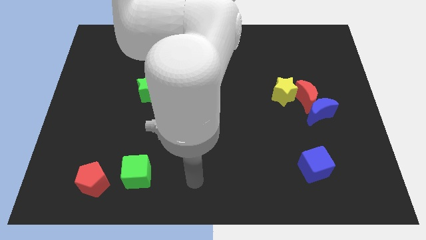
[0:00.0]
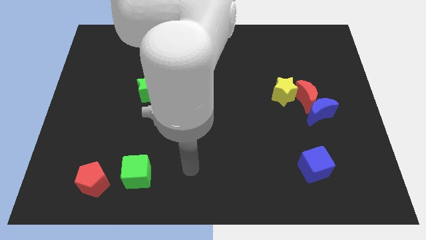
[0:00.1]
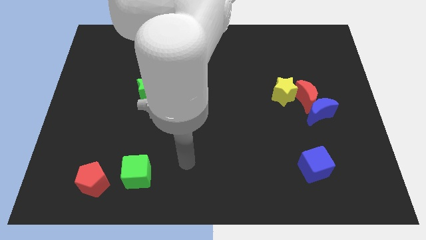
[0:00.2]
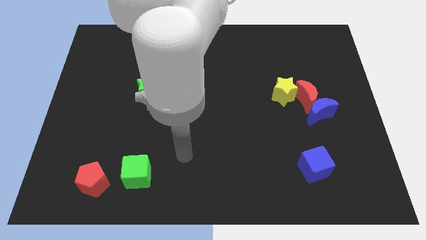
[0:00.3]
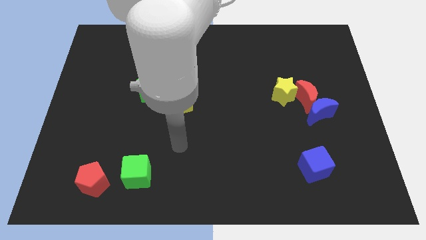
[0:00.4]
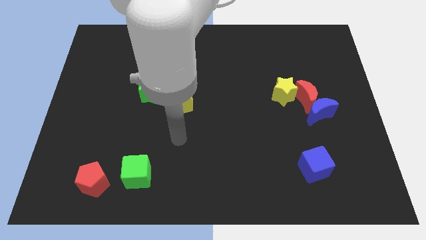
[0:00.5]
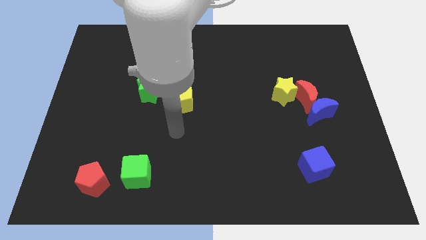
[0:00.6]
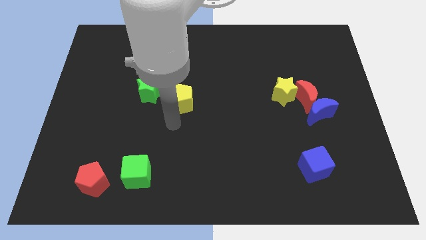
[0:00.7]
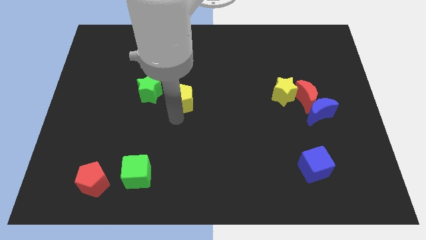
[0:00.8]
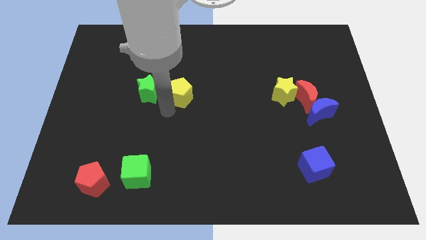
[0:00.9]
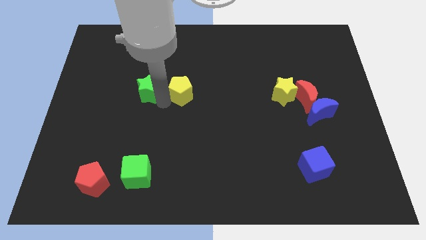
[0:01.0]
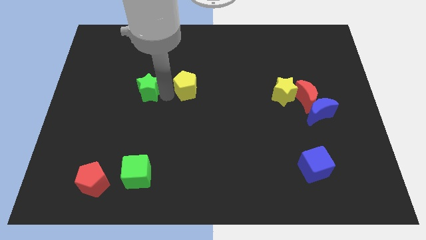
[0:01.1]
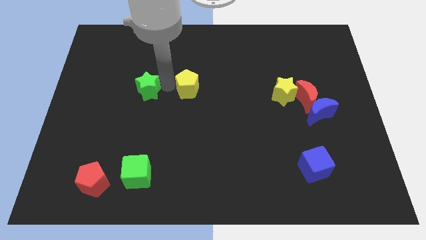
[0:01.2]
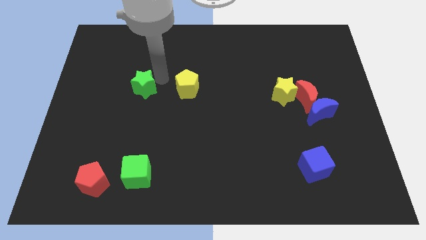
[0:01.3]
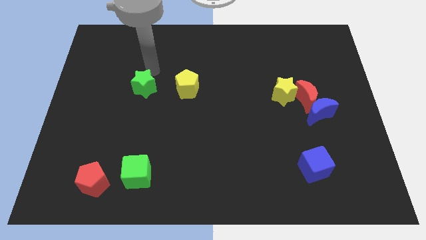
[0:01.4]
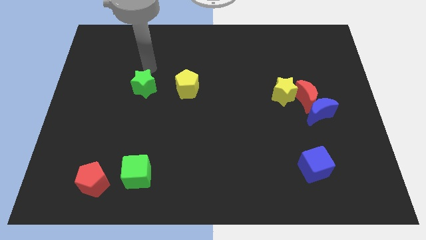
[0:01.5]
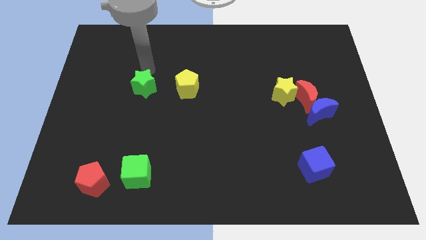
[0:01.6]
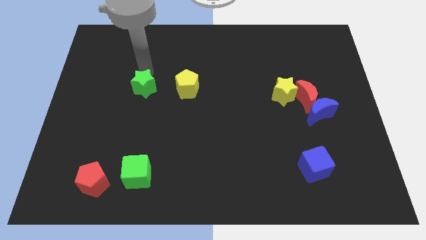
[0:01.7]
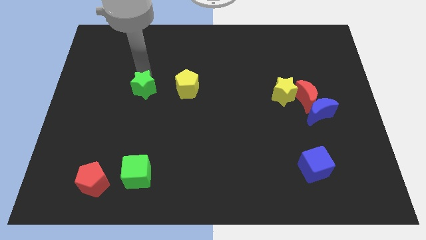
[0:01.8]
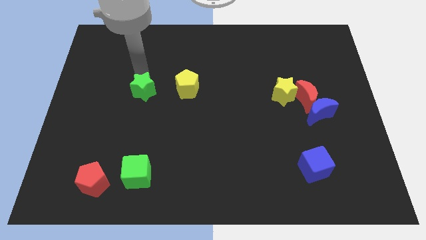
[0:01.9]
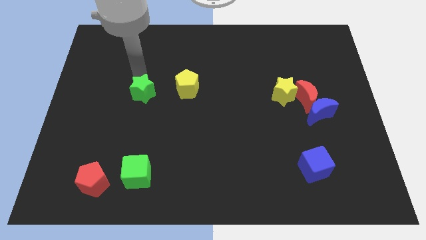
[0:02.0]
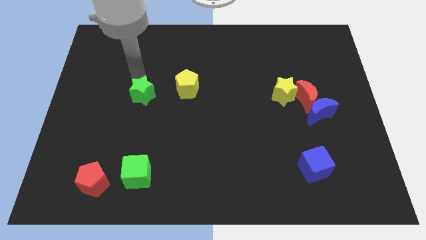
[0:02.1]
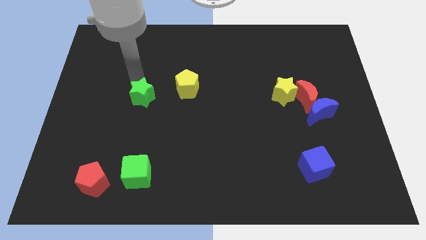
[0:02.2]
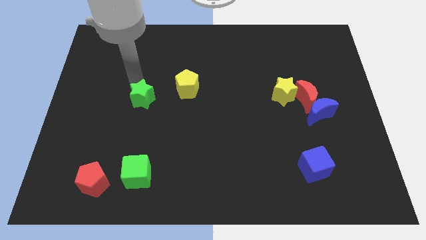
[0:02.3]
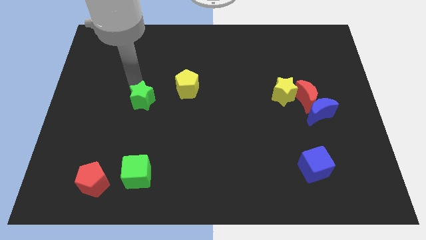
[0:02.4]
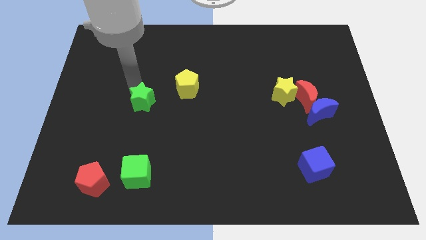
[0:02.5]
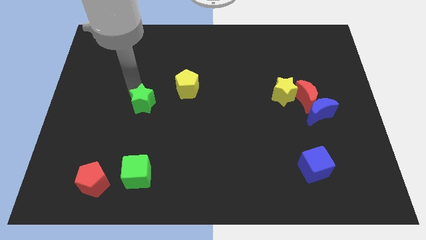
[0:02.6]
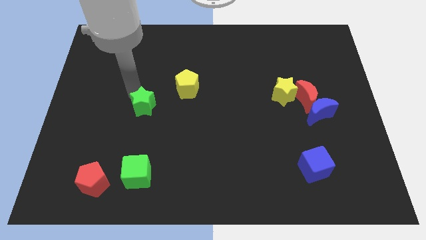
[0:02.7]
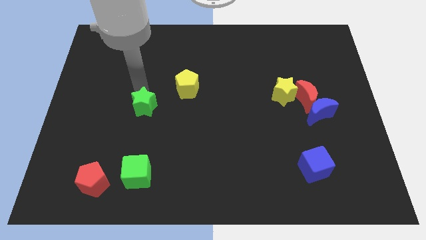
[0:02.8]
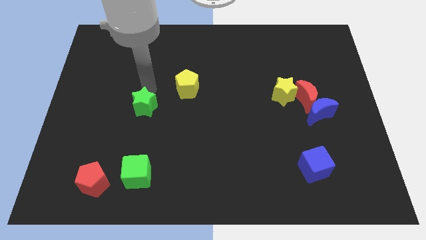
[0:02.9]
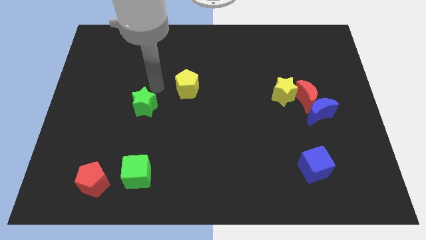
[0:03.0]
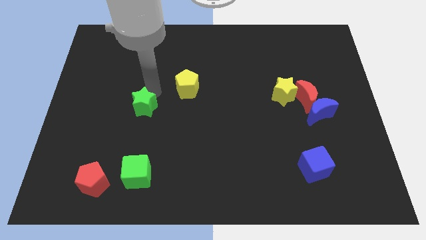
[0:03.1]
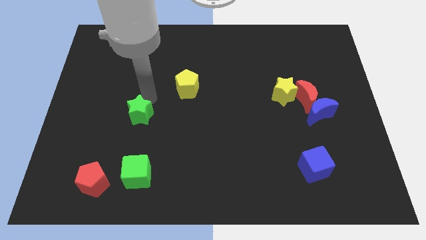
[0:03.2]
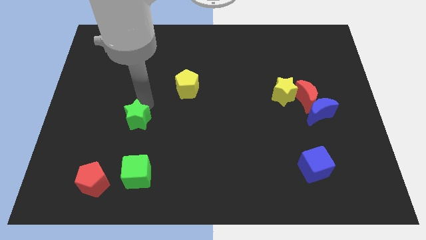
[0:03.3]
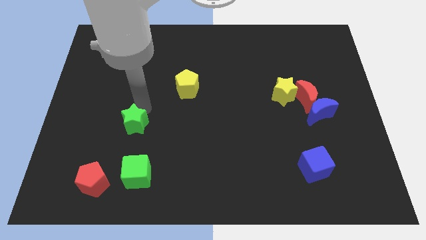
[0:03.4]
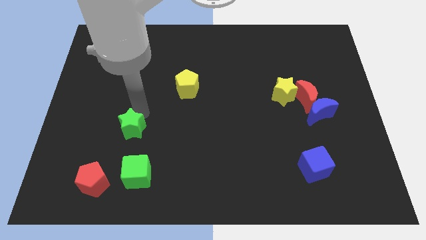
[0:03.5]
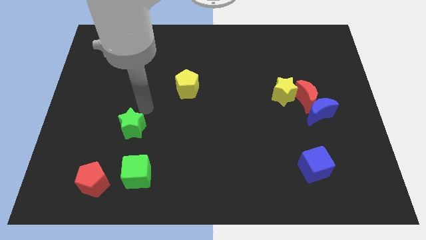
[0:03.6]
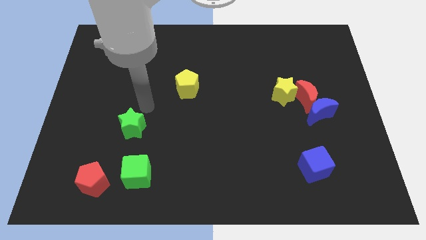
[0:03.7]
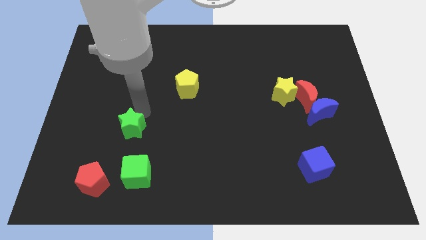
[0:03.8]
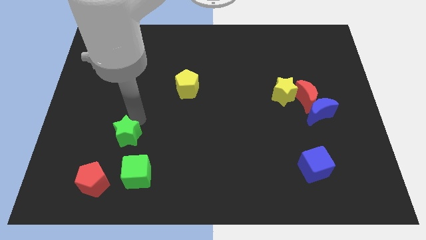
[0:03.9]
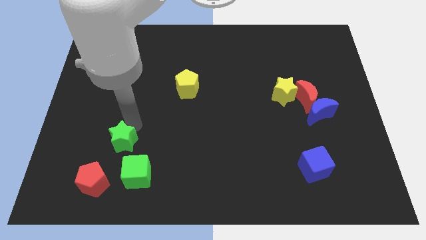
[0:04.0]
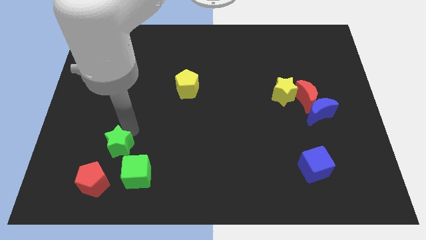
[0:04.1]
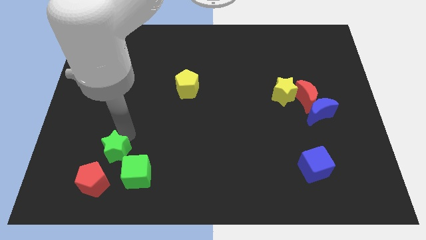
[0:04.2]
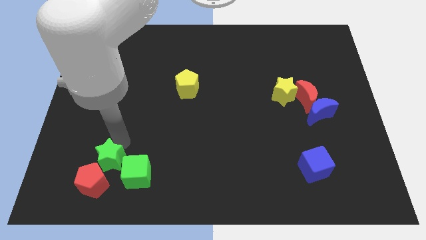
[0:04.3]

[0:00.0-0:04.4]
move the green star to the red pentagon

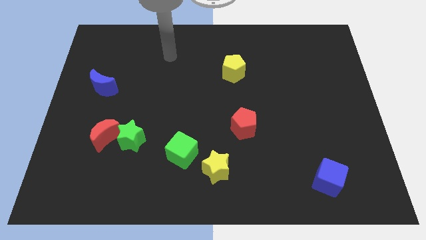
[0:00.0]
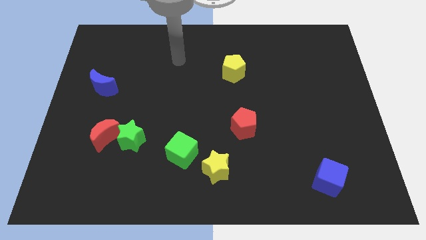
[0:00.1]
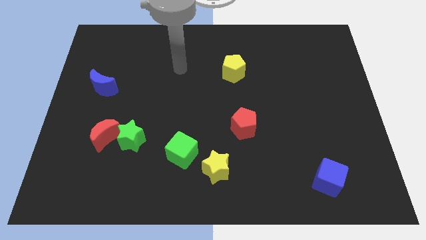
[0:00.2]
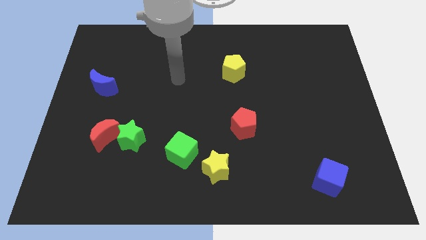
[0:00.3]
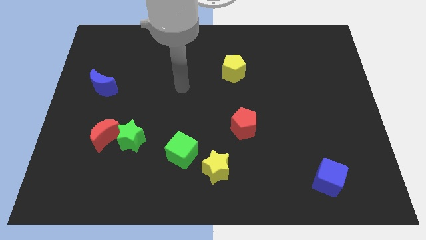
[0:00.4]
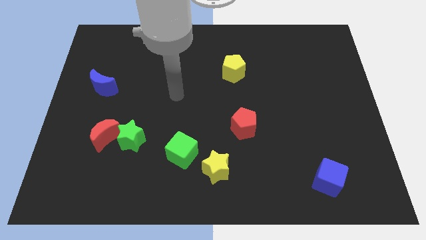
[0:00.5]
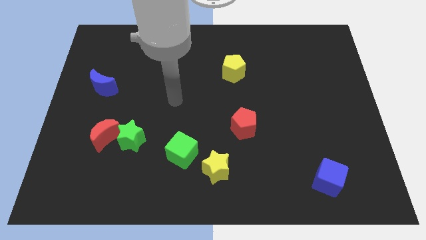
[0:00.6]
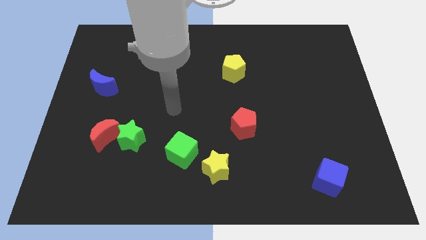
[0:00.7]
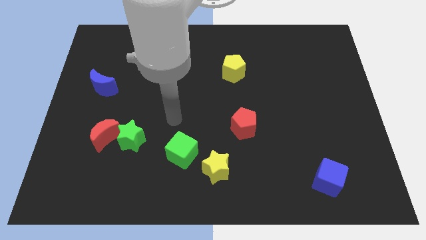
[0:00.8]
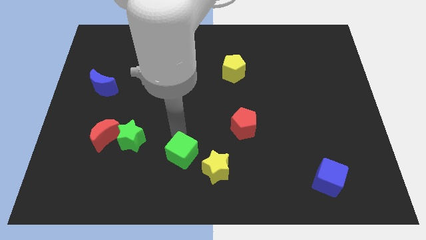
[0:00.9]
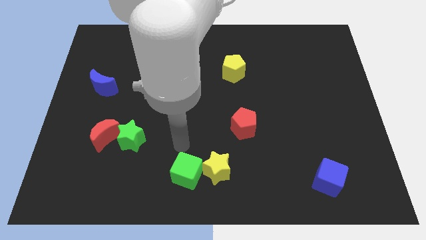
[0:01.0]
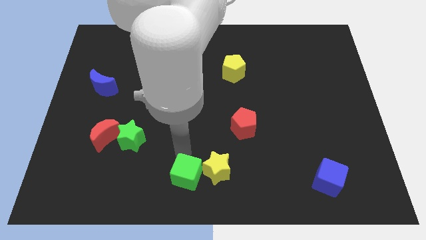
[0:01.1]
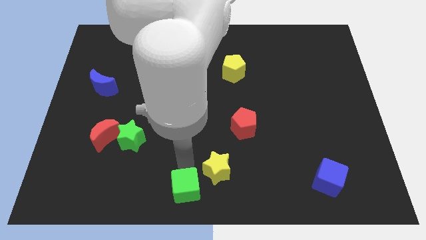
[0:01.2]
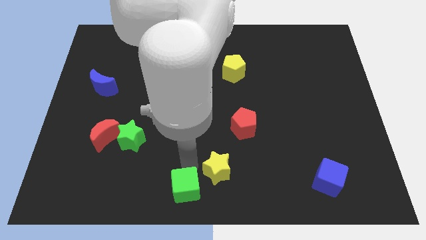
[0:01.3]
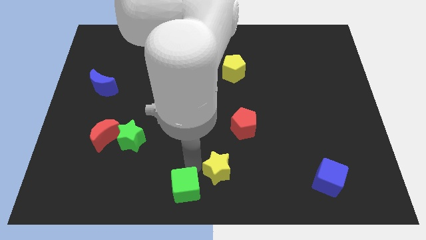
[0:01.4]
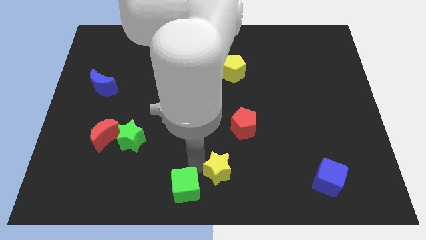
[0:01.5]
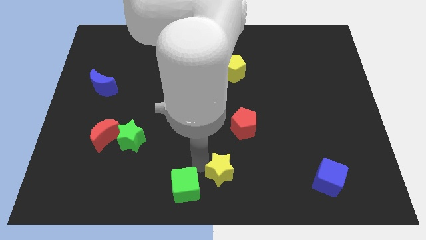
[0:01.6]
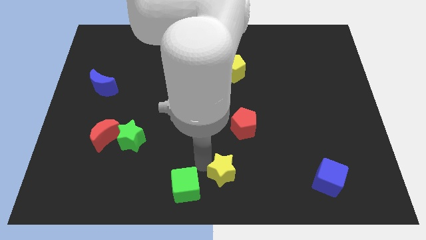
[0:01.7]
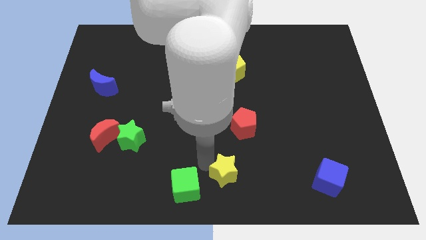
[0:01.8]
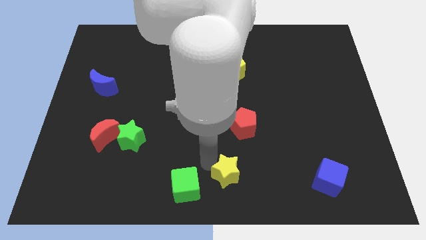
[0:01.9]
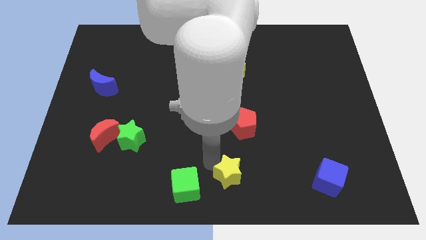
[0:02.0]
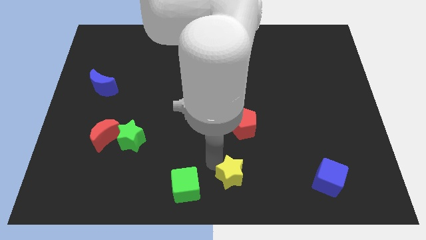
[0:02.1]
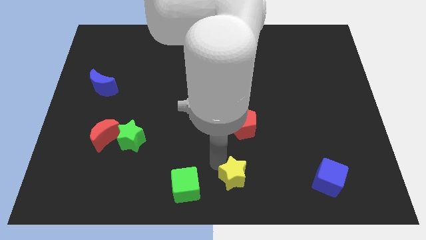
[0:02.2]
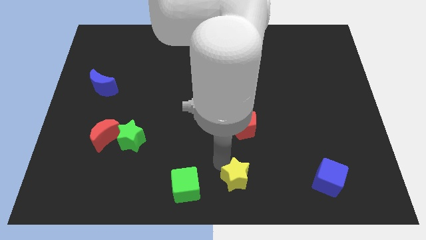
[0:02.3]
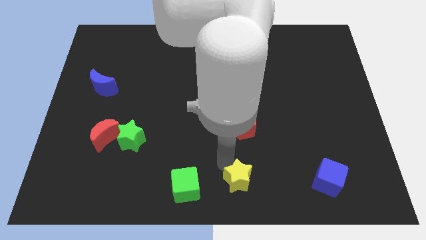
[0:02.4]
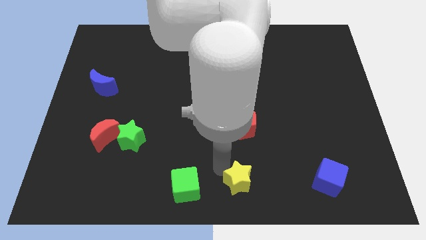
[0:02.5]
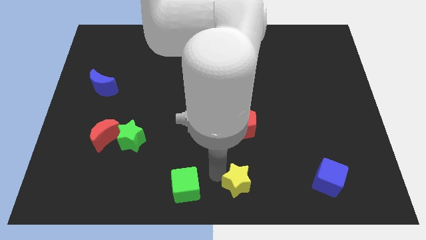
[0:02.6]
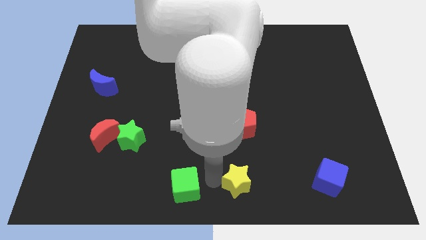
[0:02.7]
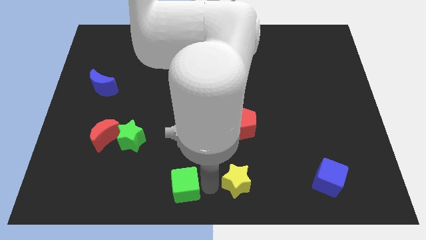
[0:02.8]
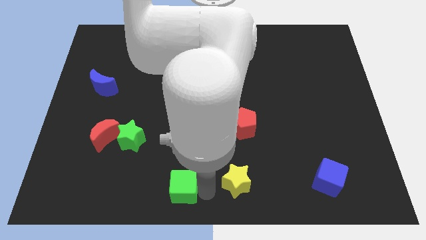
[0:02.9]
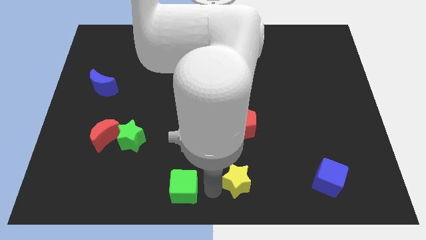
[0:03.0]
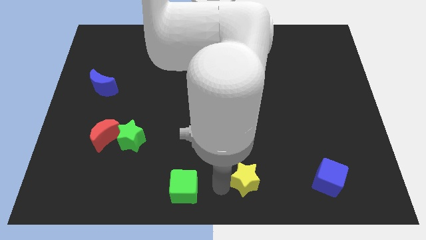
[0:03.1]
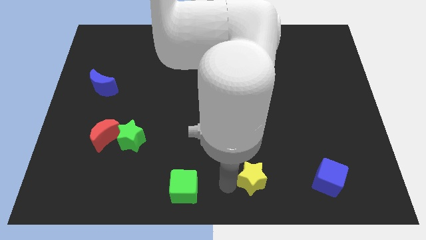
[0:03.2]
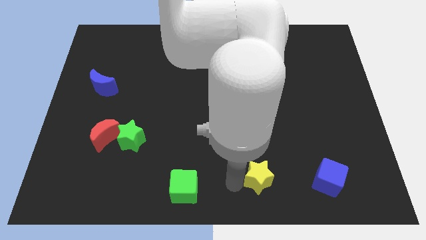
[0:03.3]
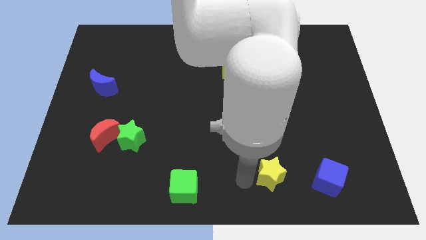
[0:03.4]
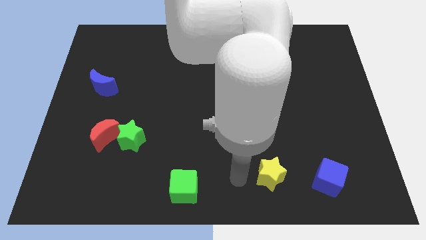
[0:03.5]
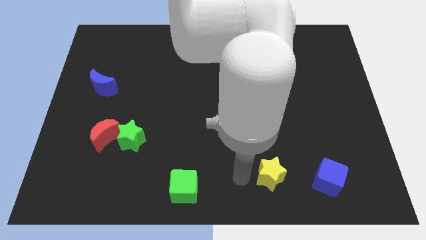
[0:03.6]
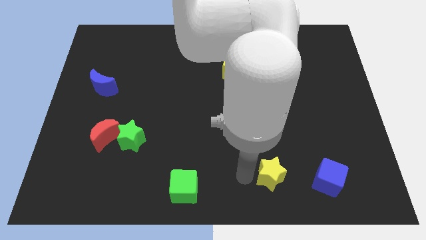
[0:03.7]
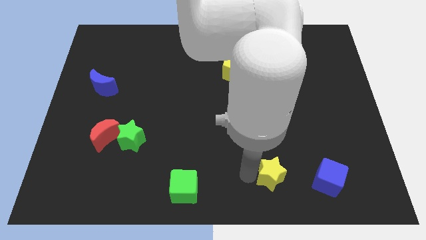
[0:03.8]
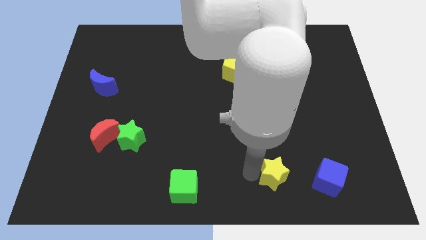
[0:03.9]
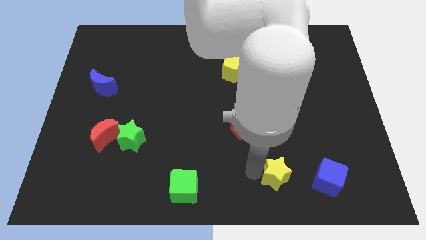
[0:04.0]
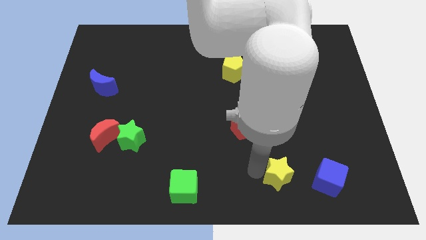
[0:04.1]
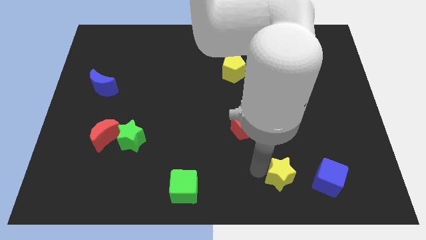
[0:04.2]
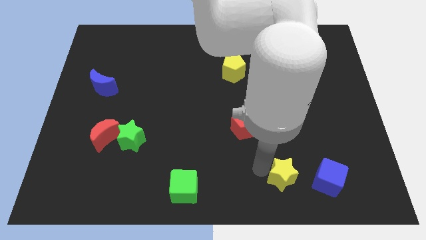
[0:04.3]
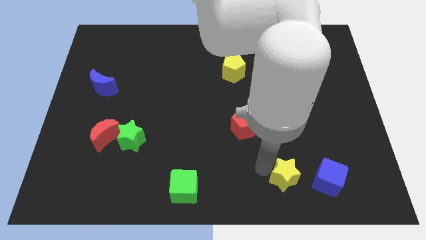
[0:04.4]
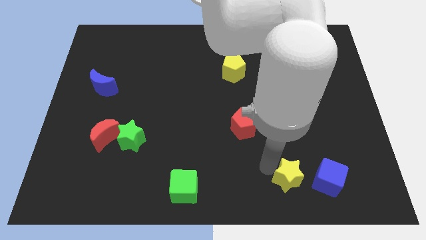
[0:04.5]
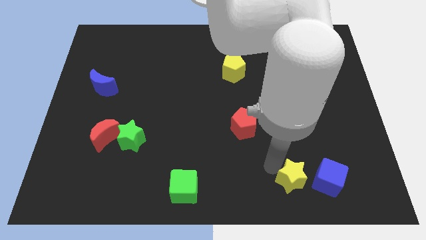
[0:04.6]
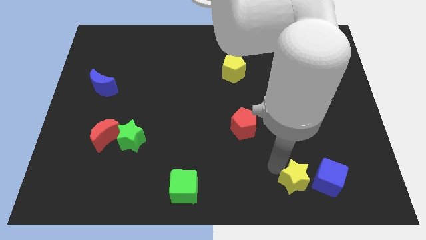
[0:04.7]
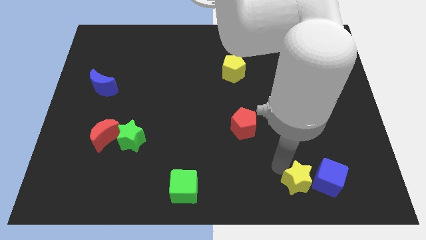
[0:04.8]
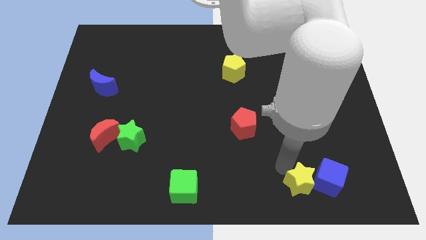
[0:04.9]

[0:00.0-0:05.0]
move the yellow star to the blue cube
